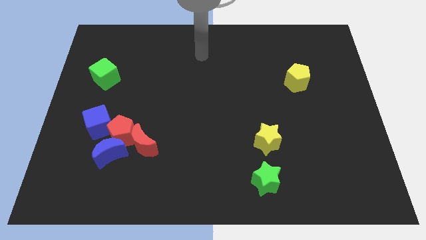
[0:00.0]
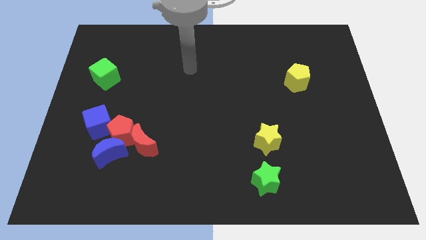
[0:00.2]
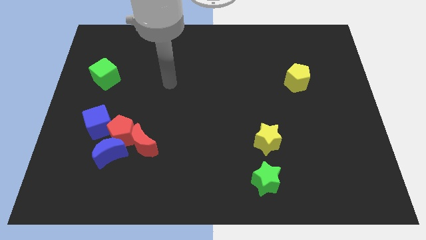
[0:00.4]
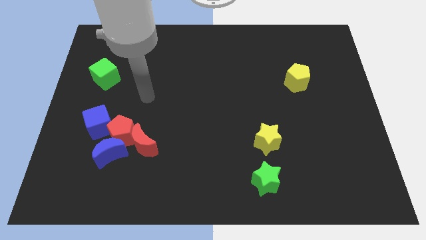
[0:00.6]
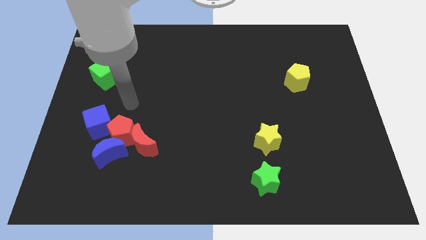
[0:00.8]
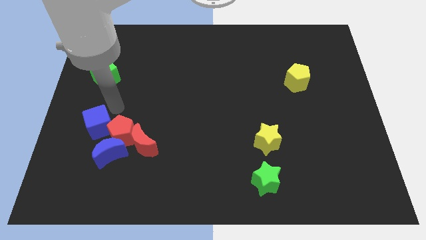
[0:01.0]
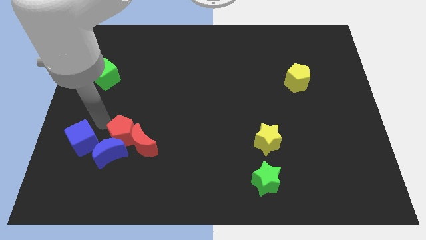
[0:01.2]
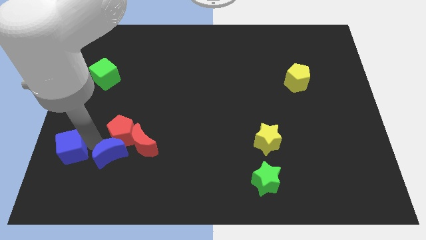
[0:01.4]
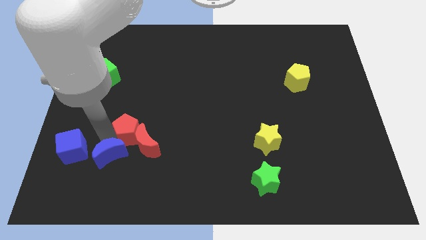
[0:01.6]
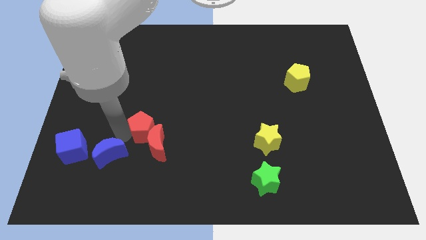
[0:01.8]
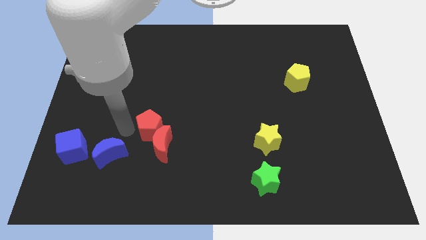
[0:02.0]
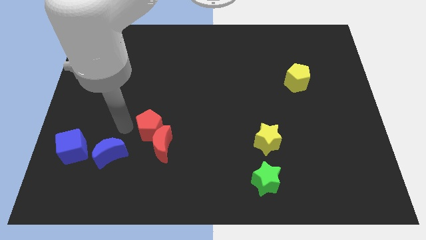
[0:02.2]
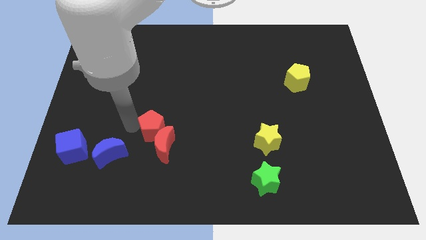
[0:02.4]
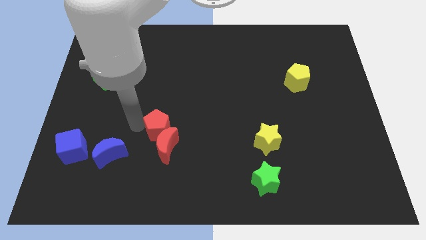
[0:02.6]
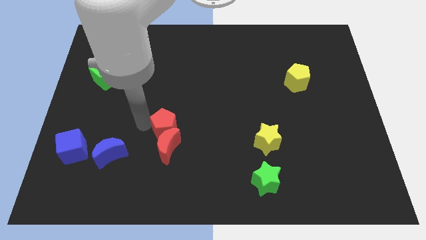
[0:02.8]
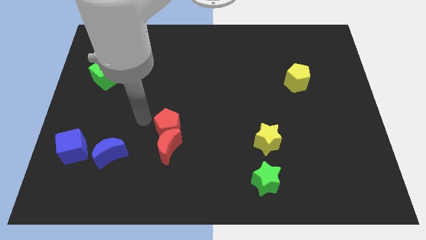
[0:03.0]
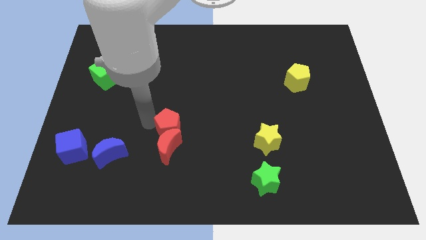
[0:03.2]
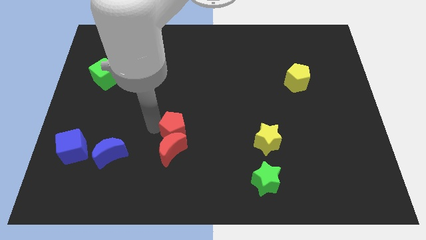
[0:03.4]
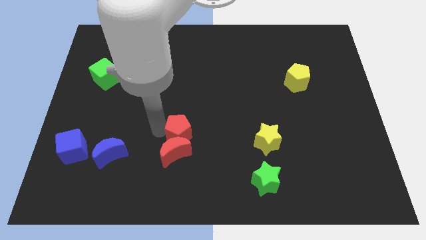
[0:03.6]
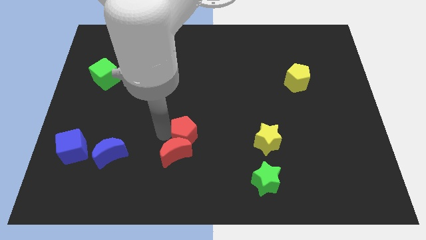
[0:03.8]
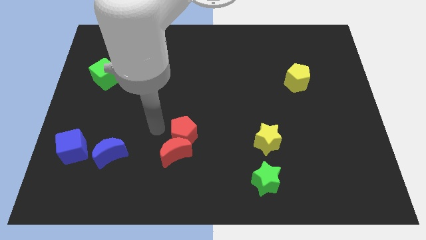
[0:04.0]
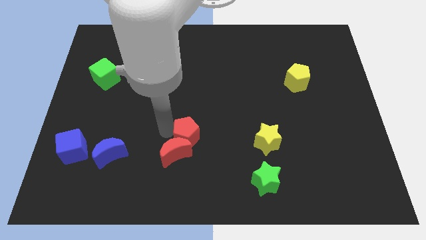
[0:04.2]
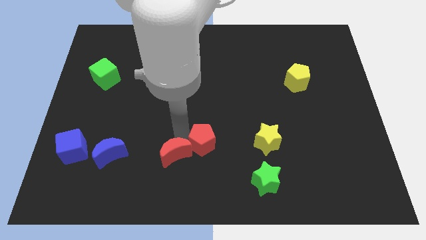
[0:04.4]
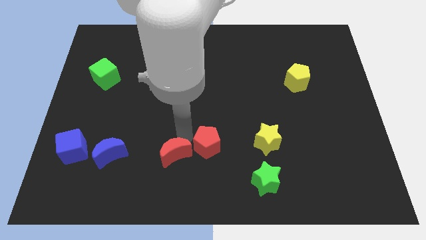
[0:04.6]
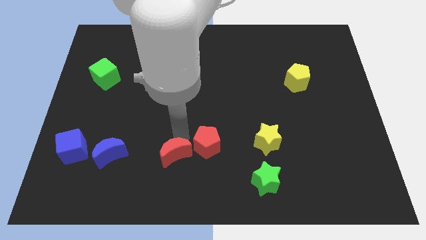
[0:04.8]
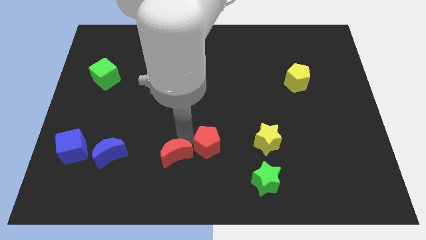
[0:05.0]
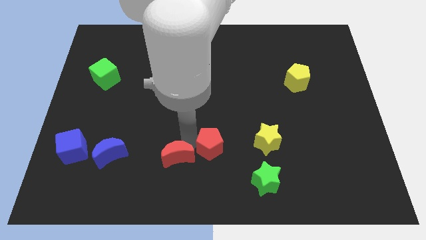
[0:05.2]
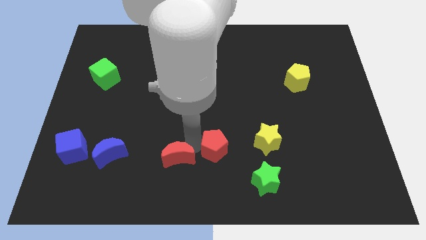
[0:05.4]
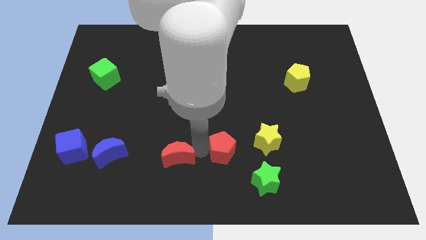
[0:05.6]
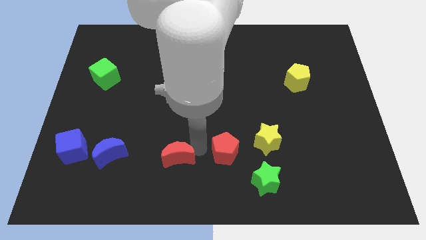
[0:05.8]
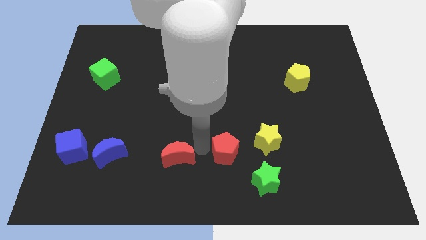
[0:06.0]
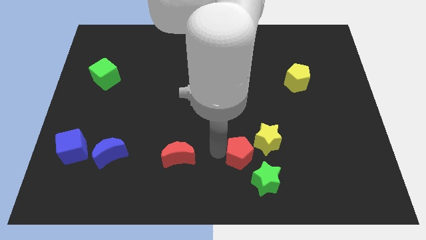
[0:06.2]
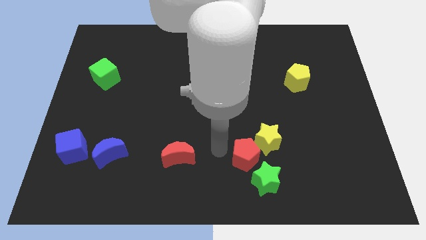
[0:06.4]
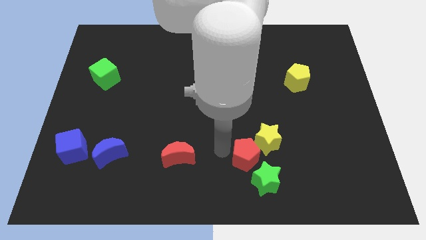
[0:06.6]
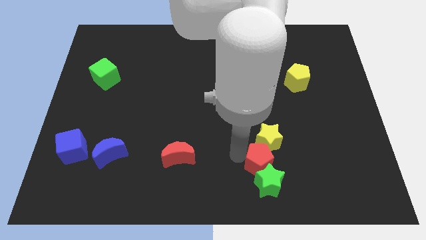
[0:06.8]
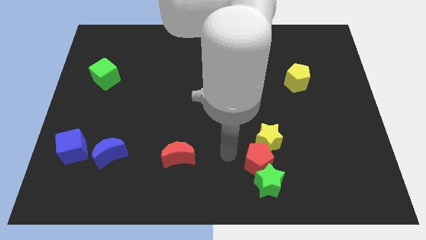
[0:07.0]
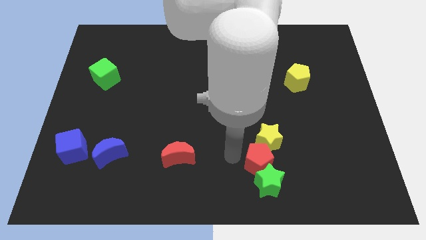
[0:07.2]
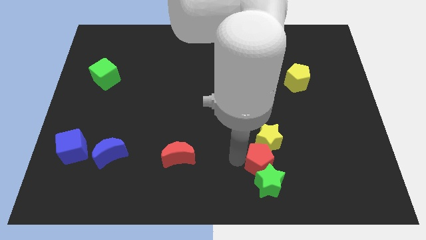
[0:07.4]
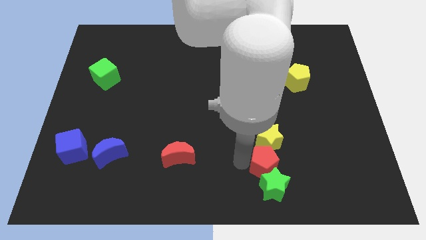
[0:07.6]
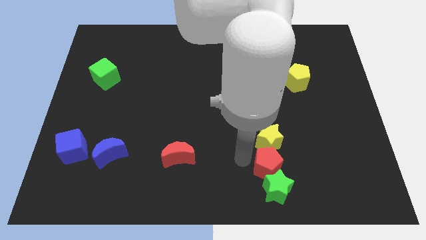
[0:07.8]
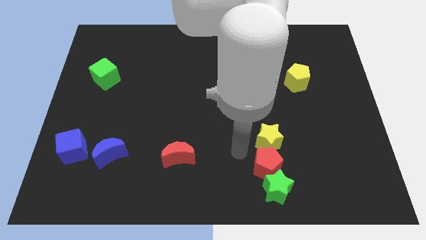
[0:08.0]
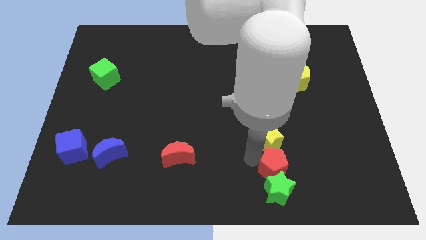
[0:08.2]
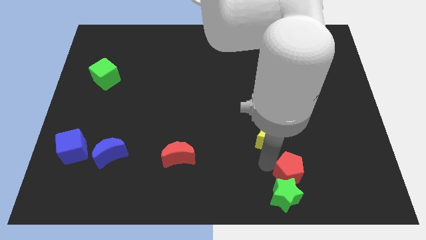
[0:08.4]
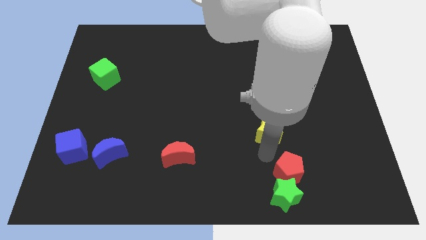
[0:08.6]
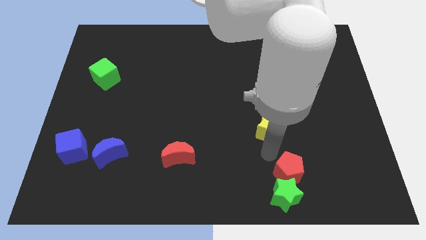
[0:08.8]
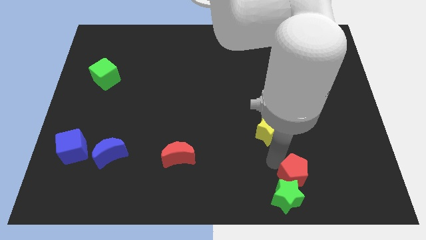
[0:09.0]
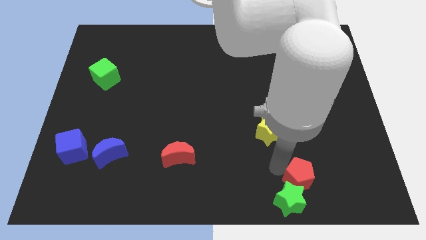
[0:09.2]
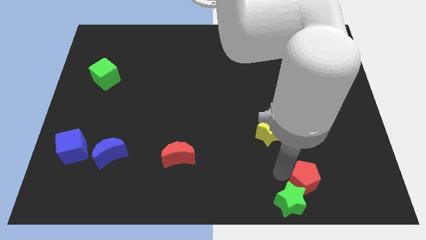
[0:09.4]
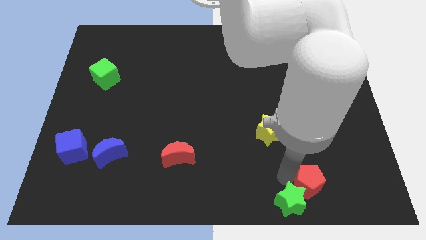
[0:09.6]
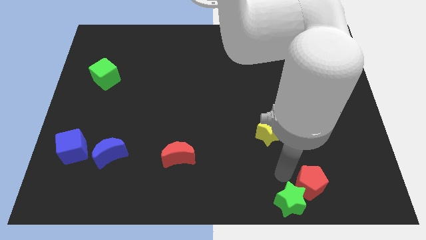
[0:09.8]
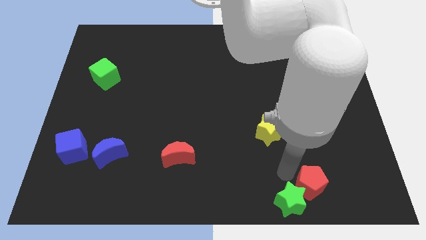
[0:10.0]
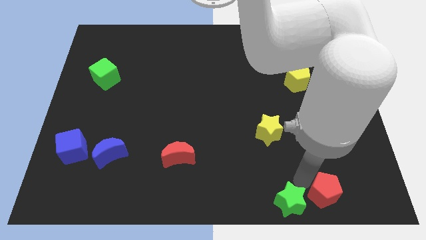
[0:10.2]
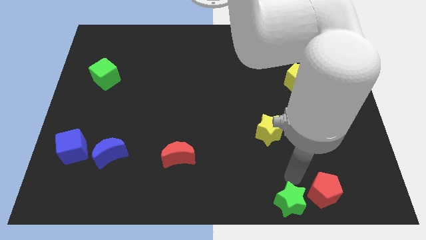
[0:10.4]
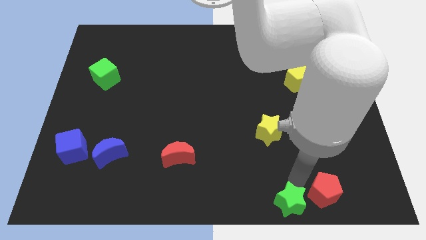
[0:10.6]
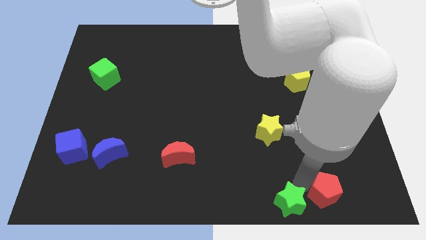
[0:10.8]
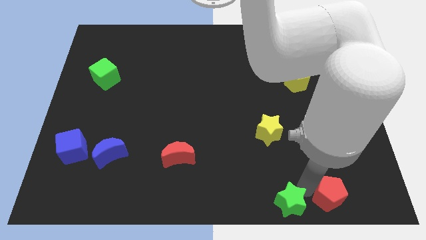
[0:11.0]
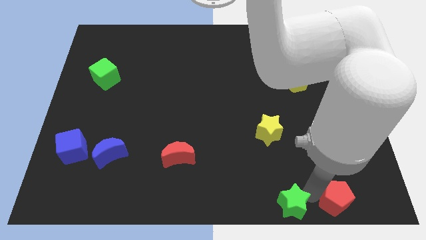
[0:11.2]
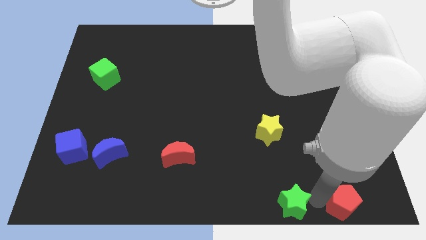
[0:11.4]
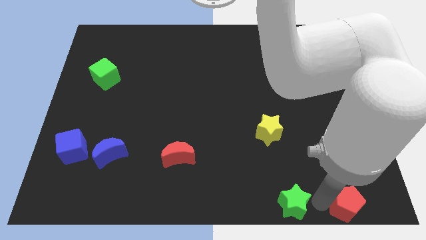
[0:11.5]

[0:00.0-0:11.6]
slide the red pentagon to the bottom right corner

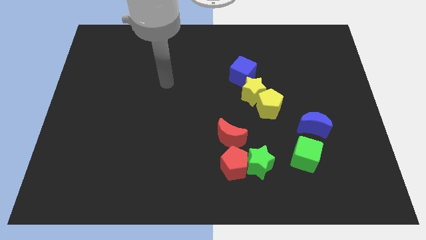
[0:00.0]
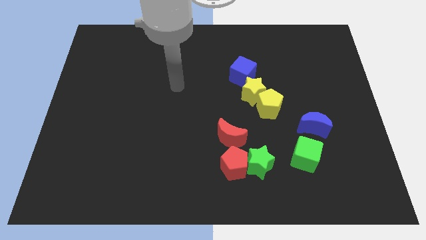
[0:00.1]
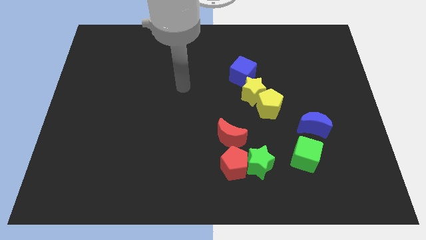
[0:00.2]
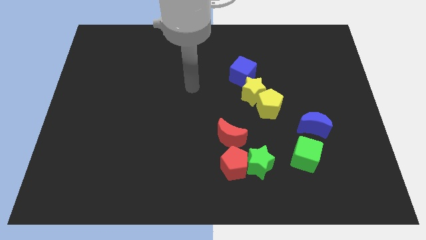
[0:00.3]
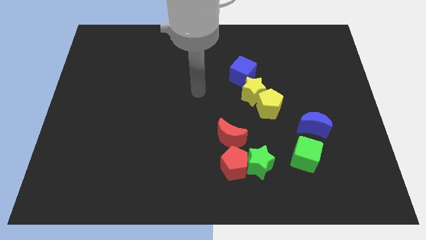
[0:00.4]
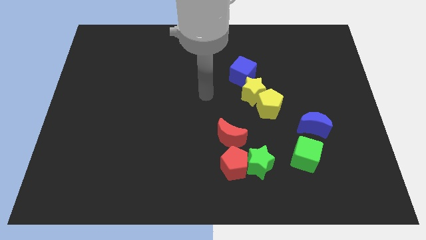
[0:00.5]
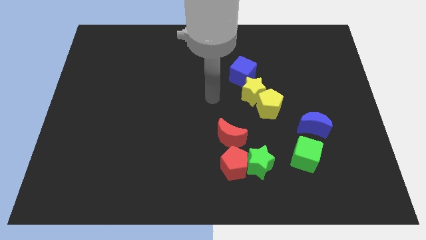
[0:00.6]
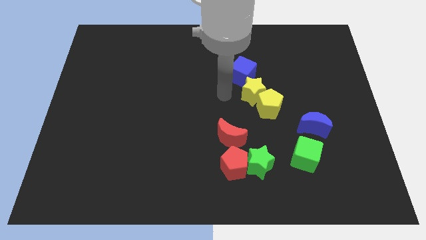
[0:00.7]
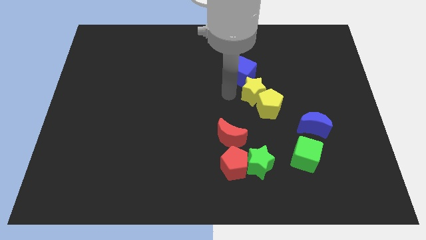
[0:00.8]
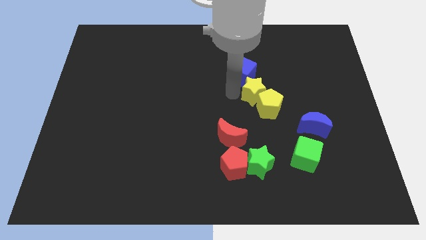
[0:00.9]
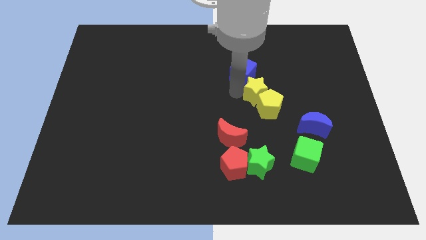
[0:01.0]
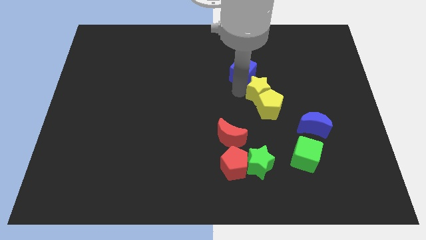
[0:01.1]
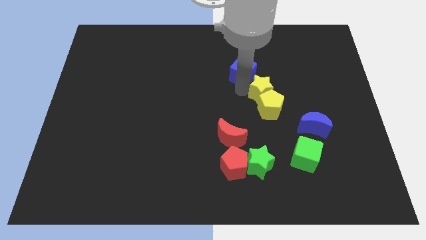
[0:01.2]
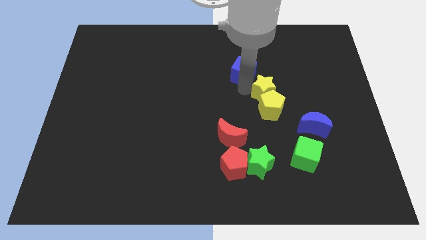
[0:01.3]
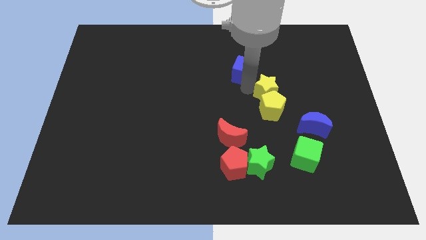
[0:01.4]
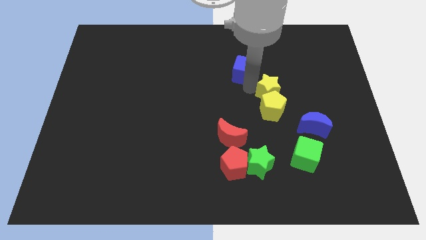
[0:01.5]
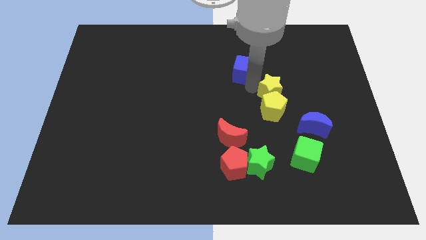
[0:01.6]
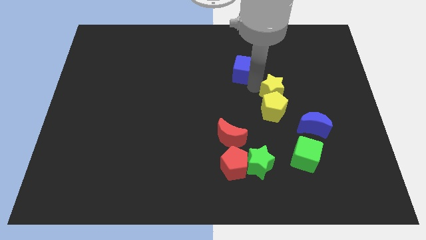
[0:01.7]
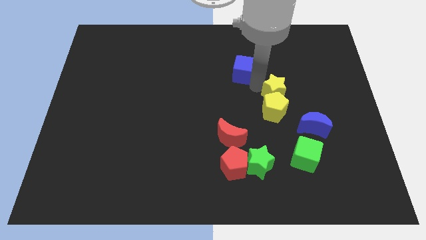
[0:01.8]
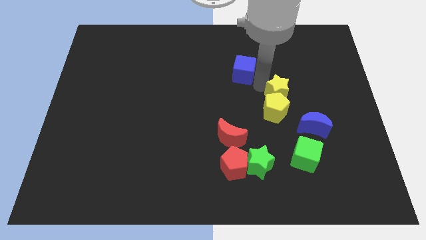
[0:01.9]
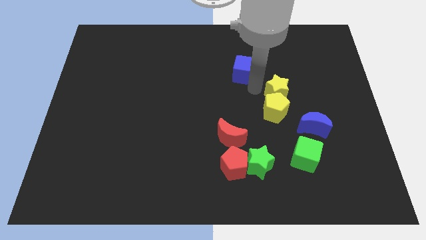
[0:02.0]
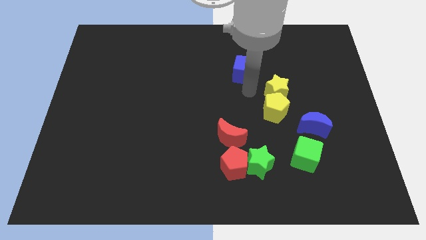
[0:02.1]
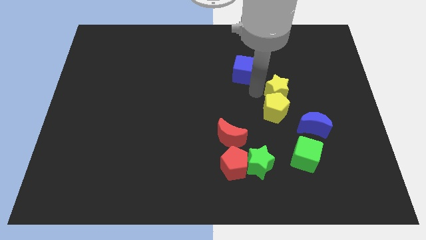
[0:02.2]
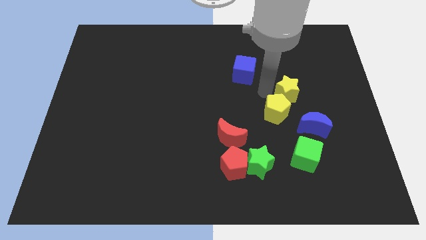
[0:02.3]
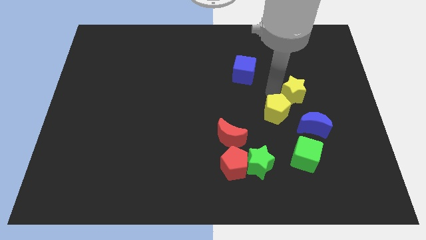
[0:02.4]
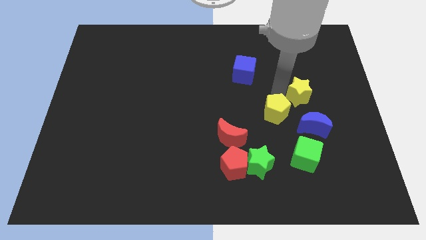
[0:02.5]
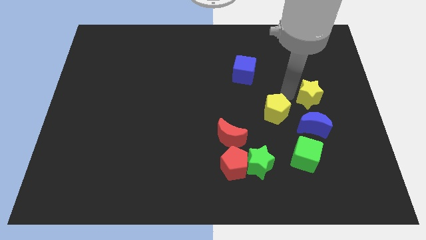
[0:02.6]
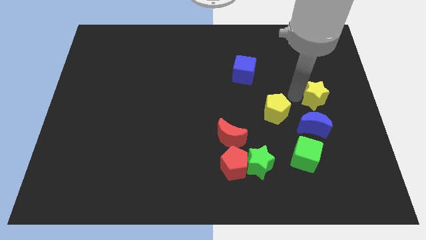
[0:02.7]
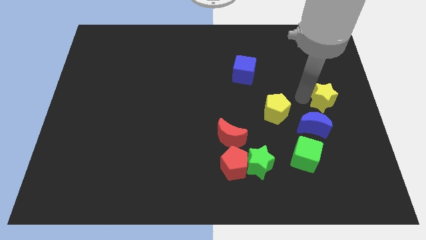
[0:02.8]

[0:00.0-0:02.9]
slide the yellow star to the right side of the board
